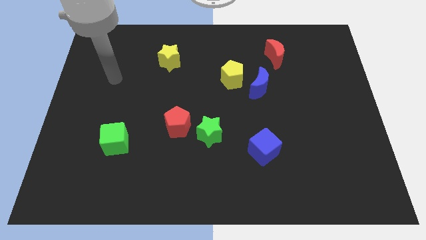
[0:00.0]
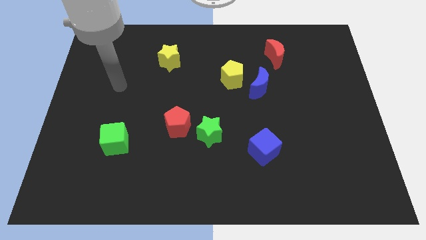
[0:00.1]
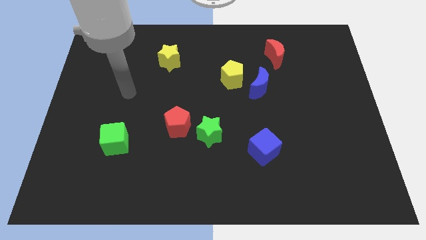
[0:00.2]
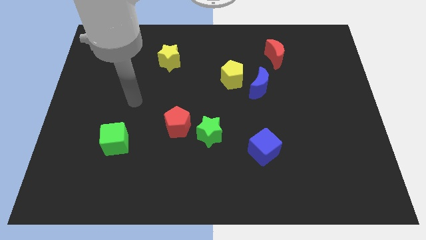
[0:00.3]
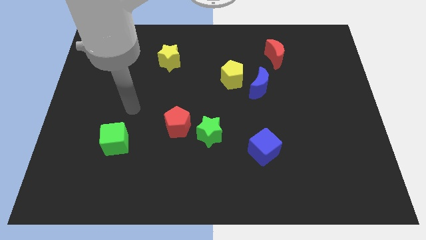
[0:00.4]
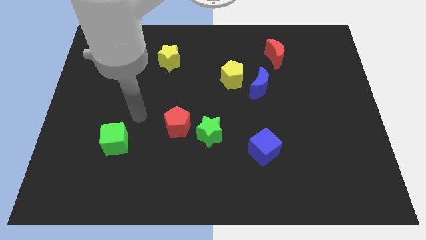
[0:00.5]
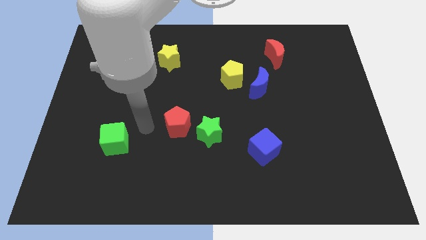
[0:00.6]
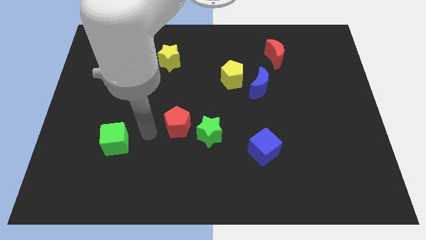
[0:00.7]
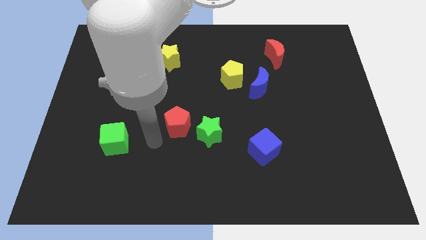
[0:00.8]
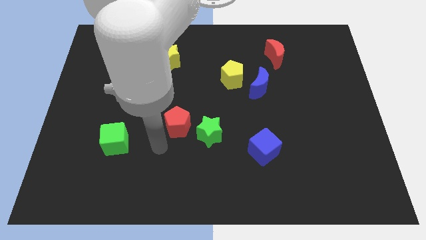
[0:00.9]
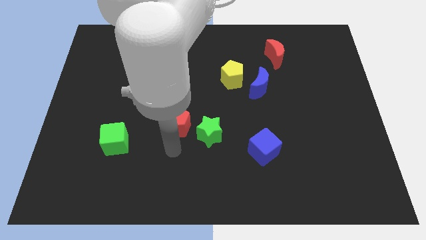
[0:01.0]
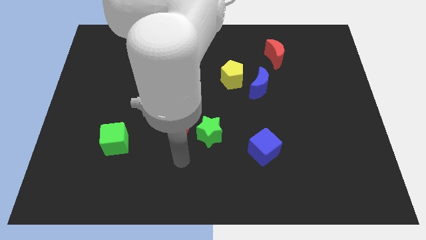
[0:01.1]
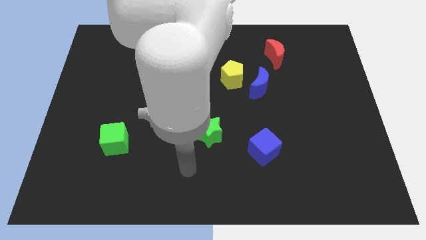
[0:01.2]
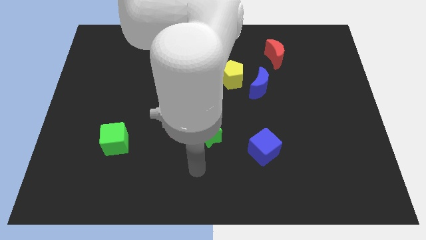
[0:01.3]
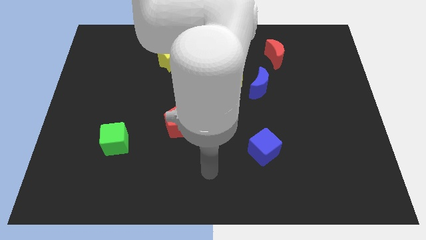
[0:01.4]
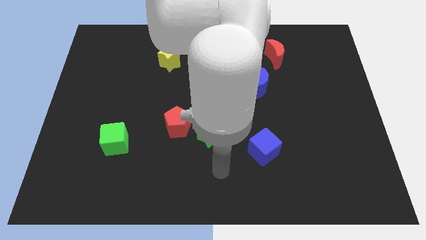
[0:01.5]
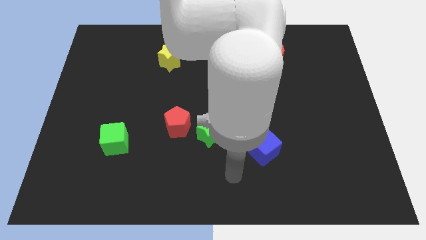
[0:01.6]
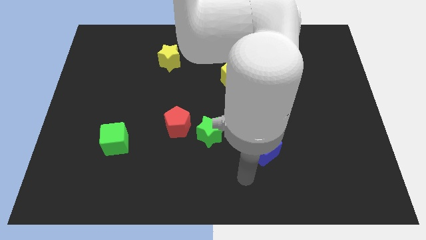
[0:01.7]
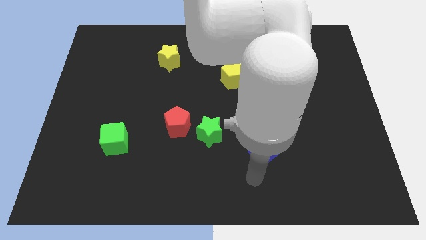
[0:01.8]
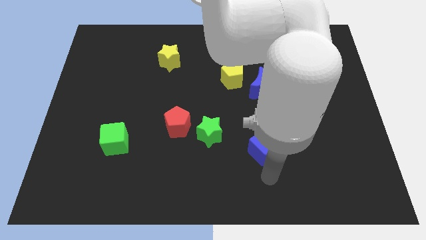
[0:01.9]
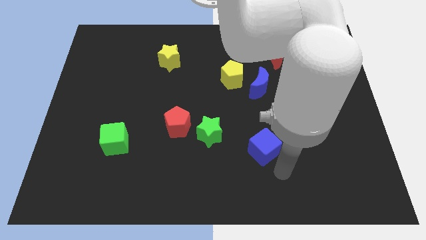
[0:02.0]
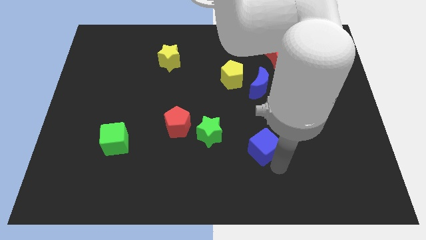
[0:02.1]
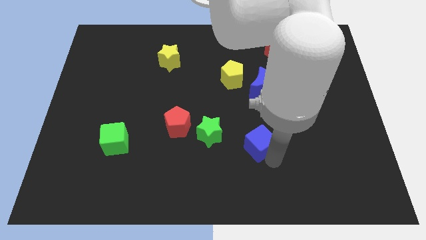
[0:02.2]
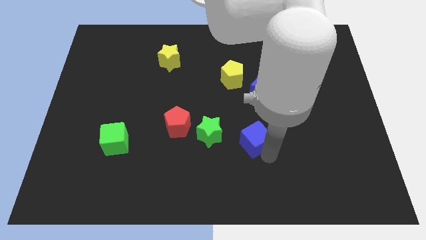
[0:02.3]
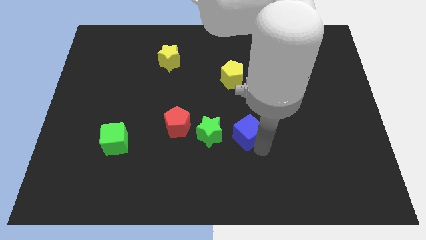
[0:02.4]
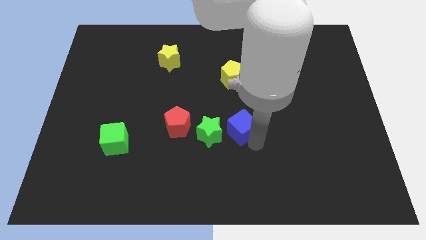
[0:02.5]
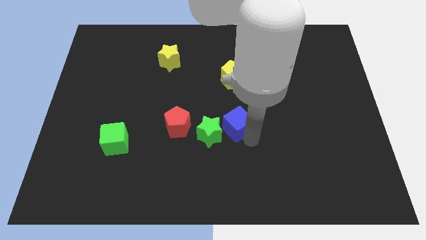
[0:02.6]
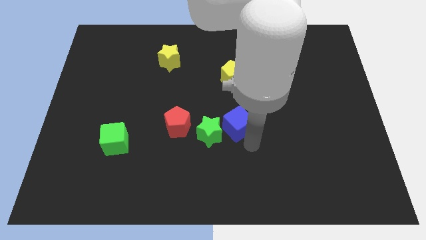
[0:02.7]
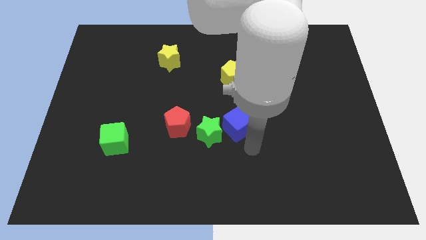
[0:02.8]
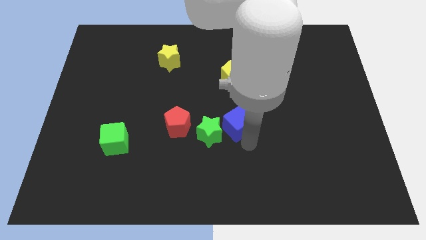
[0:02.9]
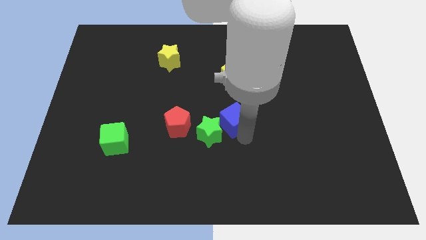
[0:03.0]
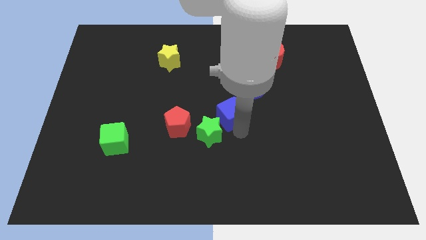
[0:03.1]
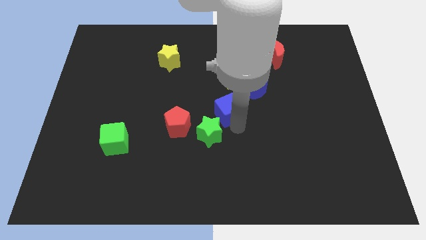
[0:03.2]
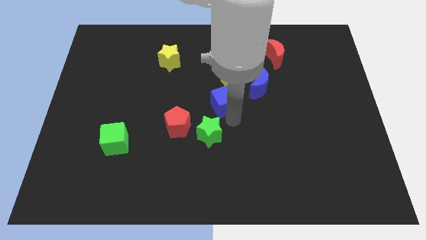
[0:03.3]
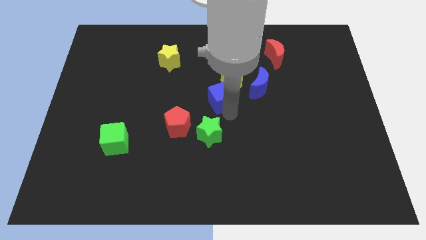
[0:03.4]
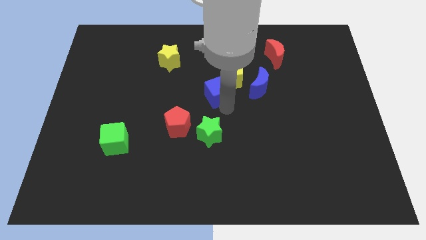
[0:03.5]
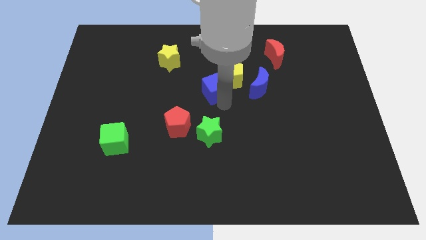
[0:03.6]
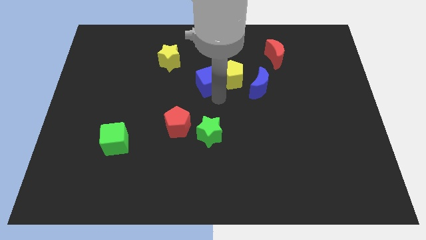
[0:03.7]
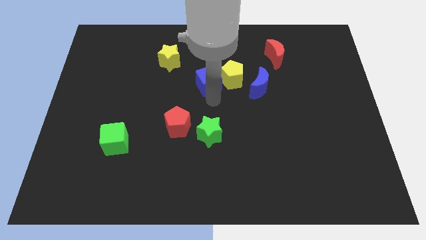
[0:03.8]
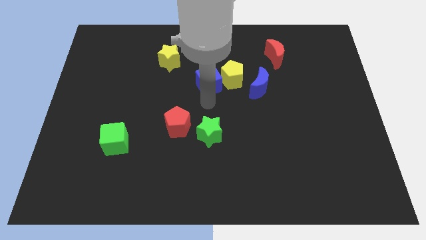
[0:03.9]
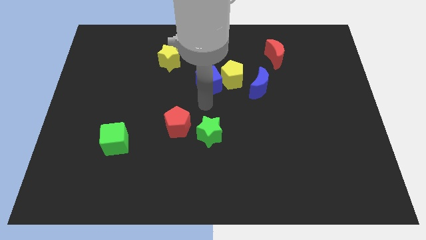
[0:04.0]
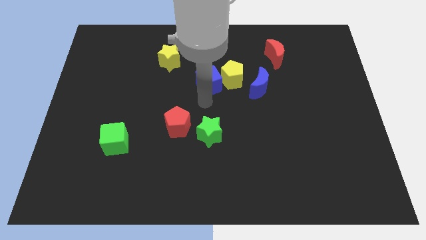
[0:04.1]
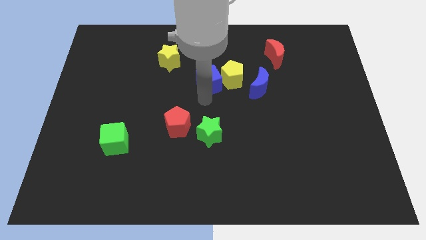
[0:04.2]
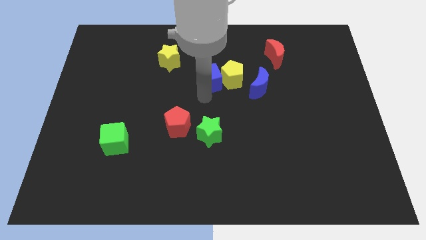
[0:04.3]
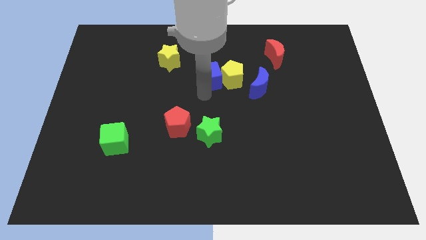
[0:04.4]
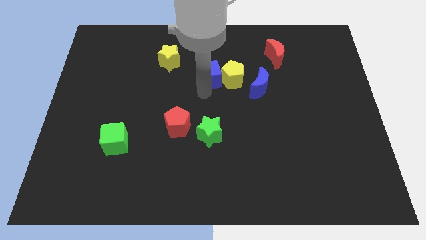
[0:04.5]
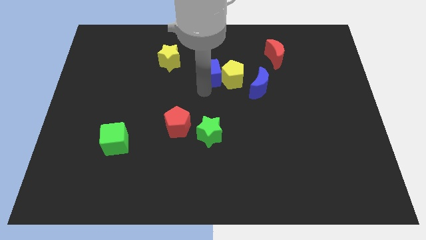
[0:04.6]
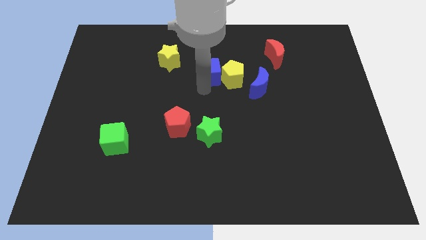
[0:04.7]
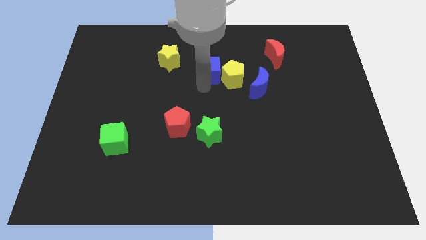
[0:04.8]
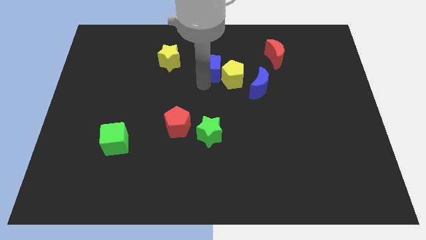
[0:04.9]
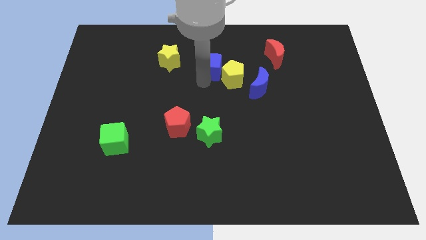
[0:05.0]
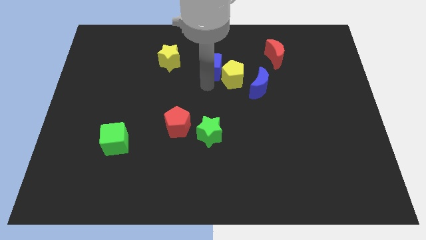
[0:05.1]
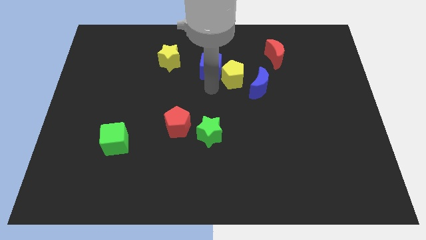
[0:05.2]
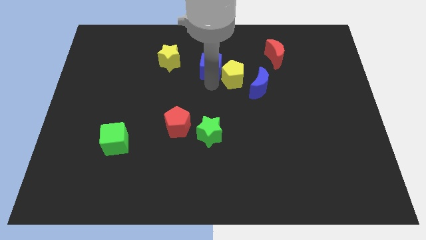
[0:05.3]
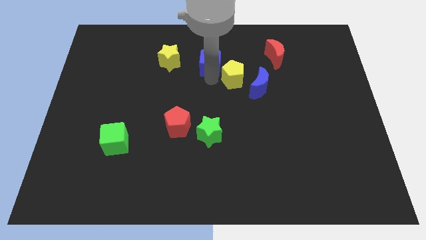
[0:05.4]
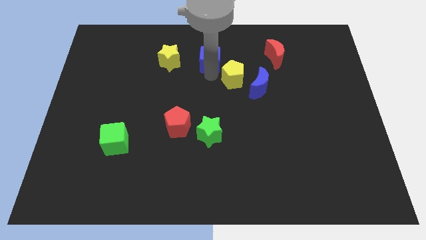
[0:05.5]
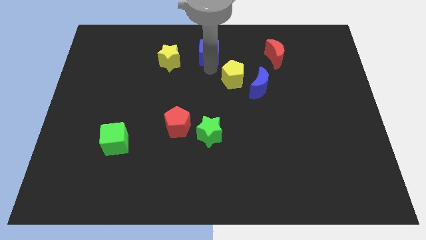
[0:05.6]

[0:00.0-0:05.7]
slide the blue cube to the top side

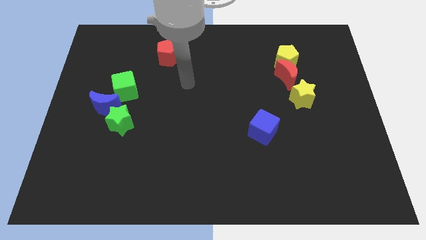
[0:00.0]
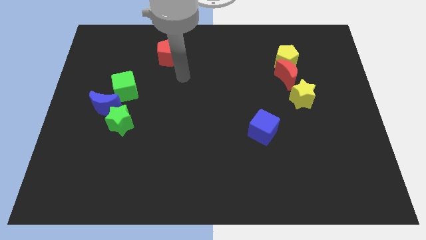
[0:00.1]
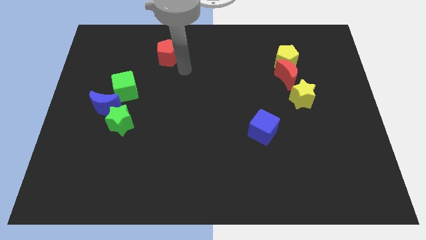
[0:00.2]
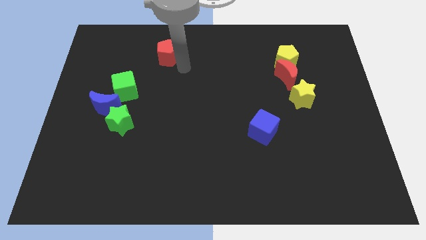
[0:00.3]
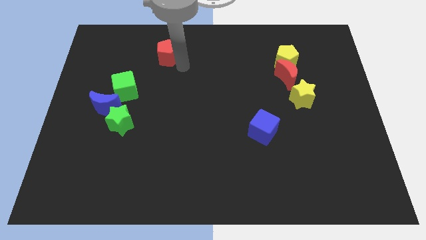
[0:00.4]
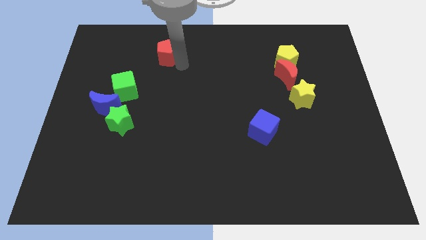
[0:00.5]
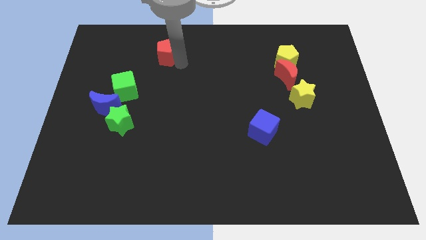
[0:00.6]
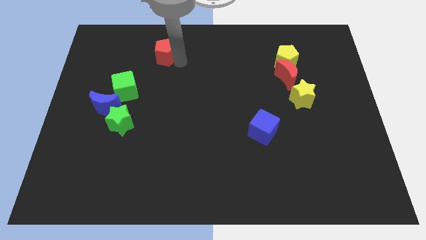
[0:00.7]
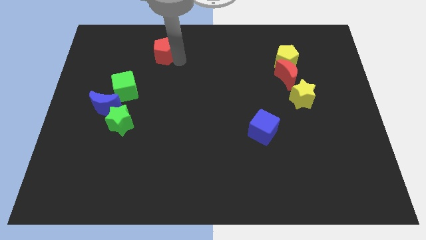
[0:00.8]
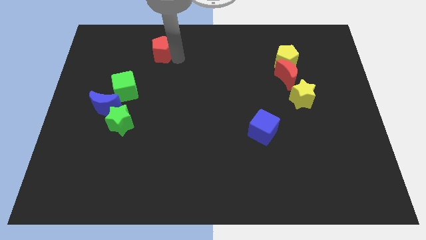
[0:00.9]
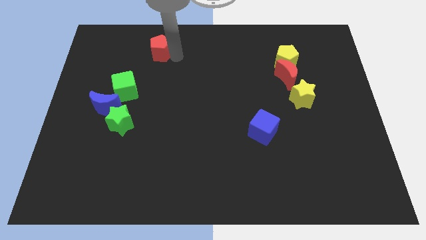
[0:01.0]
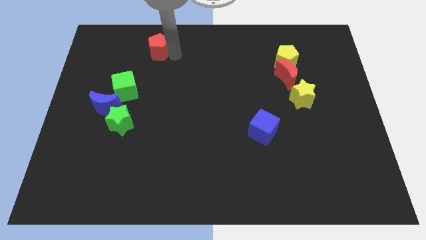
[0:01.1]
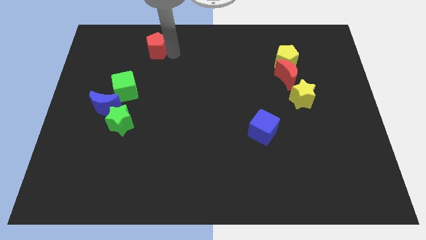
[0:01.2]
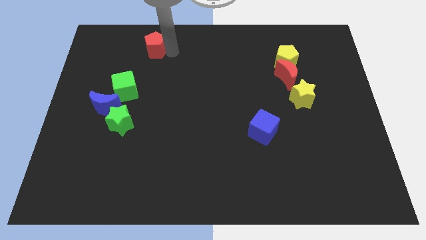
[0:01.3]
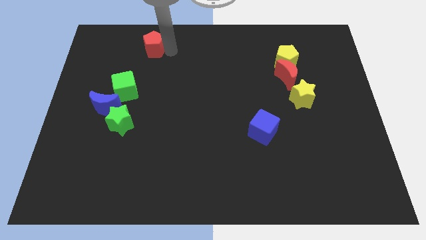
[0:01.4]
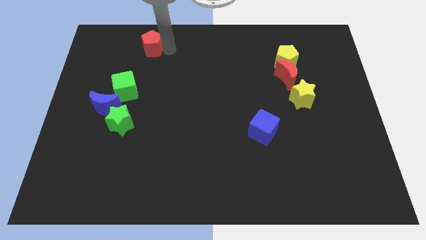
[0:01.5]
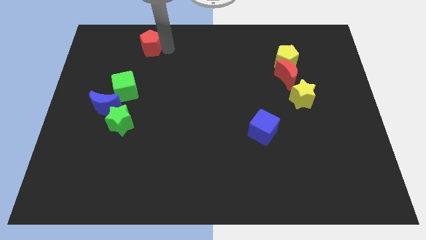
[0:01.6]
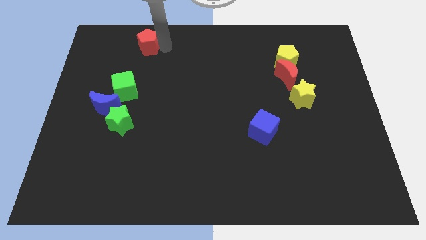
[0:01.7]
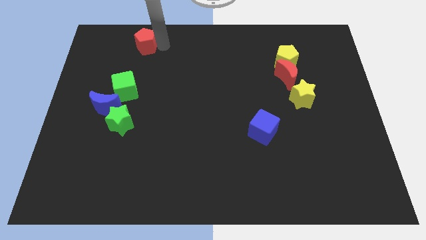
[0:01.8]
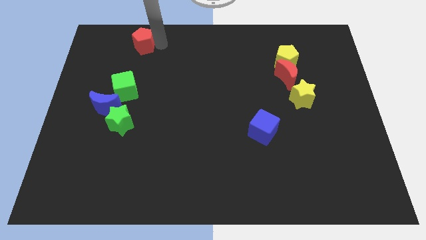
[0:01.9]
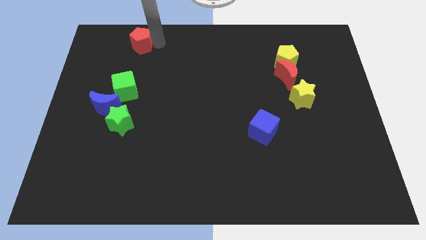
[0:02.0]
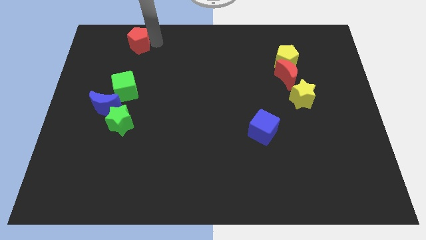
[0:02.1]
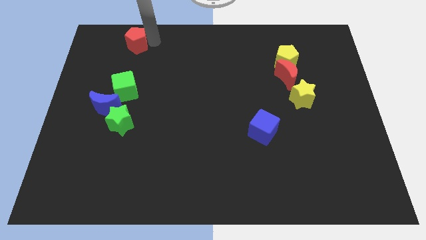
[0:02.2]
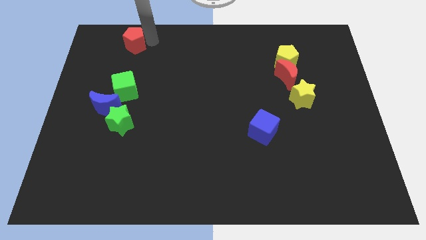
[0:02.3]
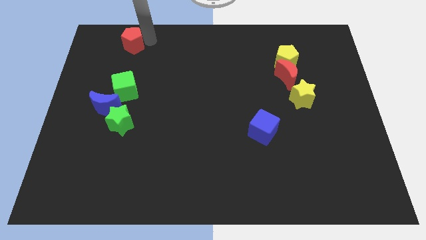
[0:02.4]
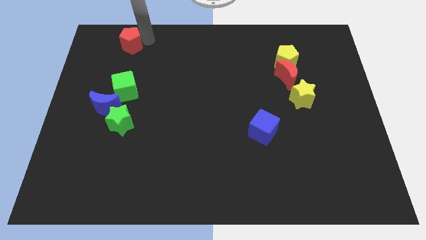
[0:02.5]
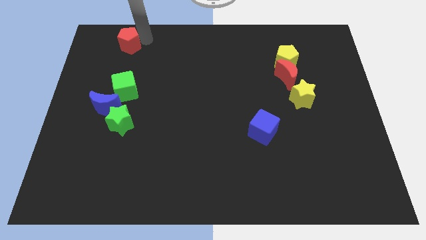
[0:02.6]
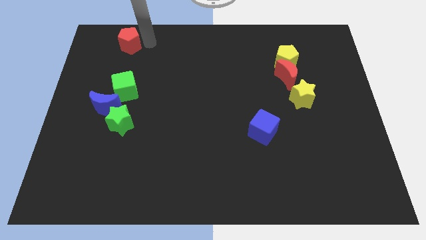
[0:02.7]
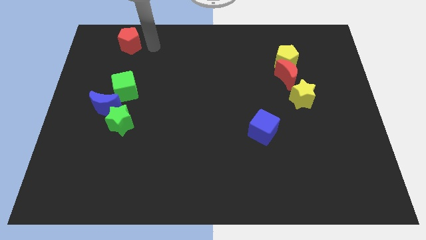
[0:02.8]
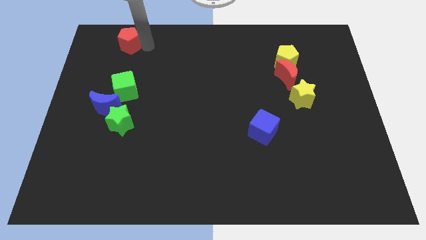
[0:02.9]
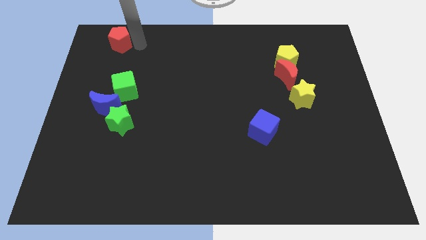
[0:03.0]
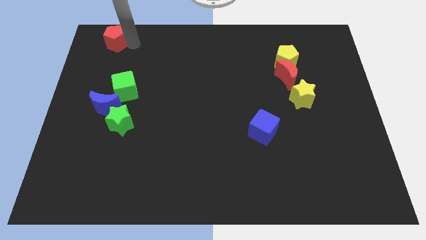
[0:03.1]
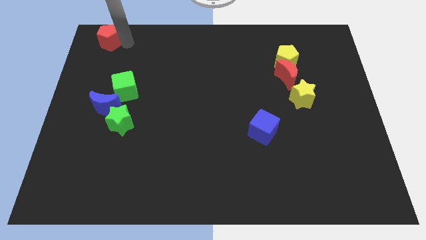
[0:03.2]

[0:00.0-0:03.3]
push the red pentagon to the top left corner
